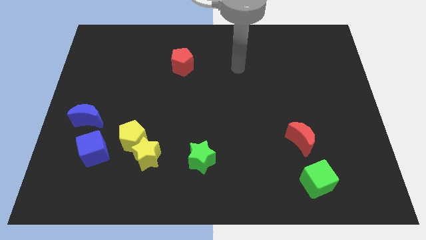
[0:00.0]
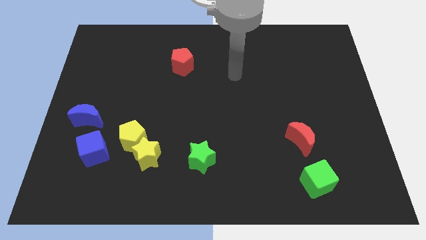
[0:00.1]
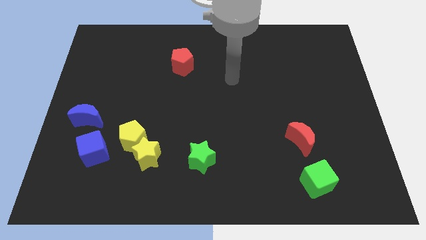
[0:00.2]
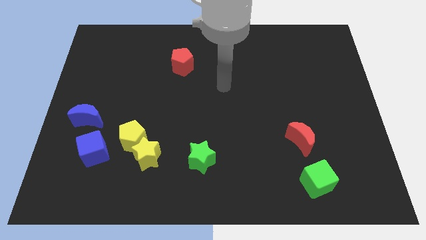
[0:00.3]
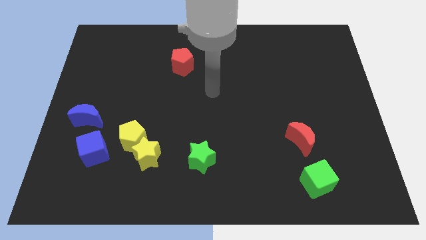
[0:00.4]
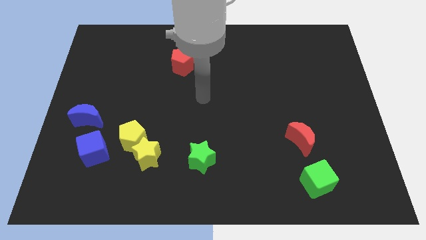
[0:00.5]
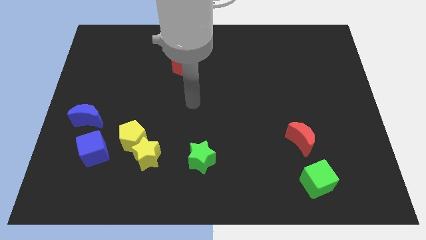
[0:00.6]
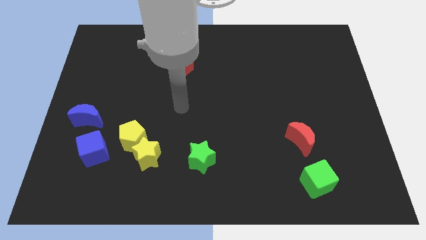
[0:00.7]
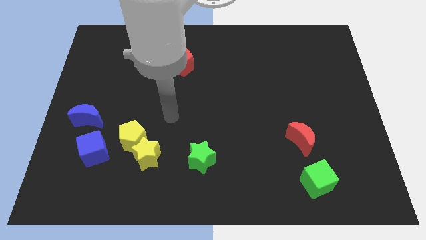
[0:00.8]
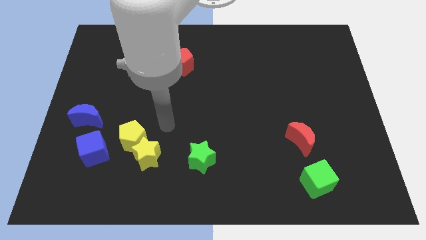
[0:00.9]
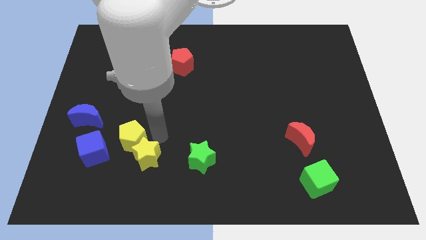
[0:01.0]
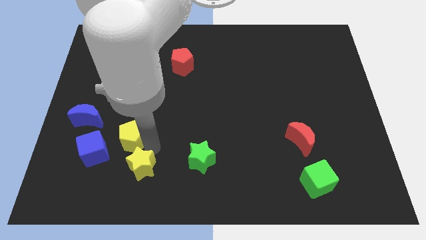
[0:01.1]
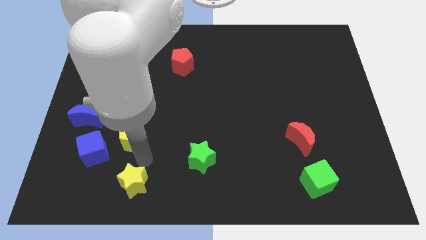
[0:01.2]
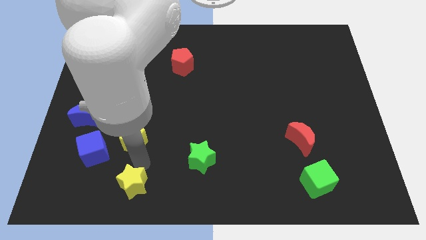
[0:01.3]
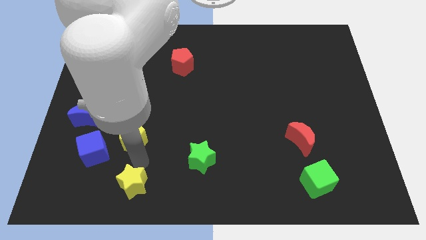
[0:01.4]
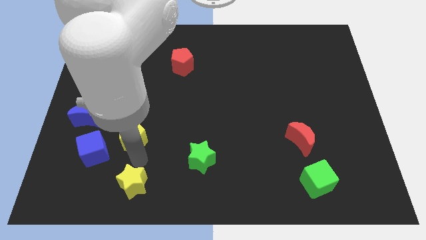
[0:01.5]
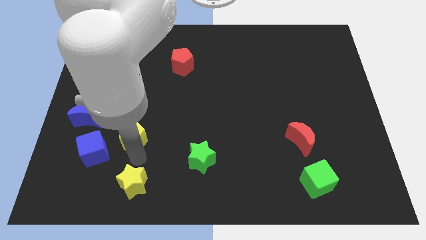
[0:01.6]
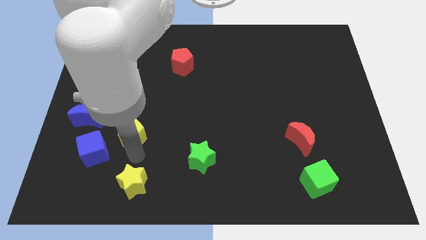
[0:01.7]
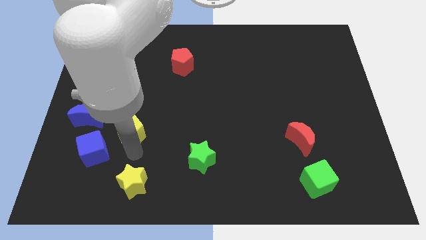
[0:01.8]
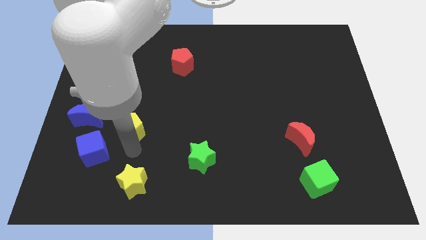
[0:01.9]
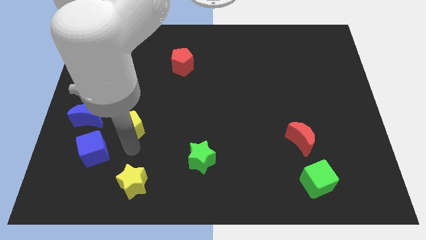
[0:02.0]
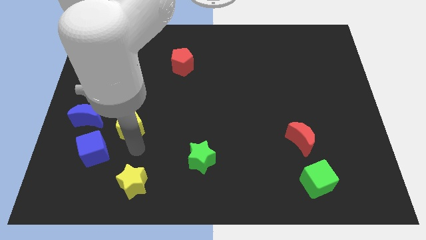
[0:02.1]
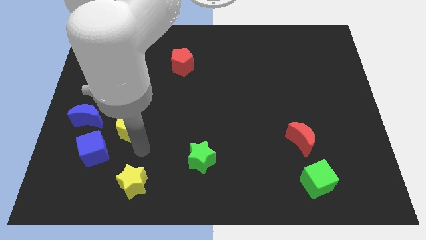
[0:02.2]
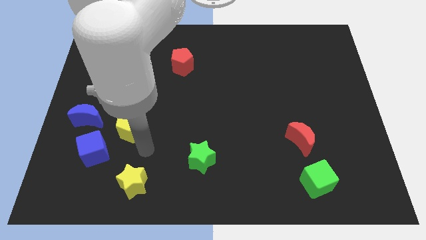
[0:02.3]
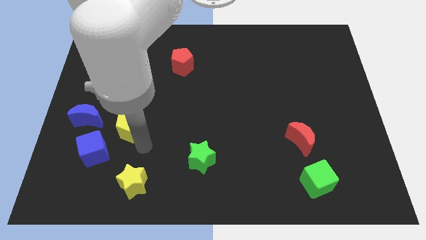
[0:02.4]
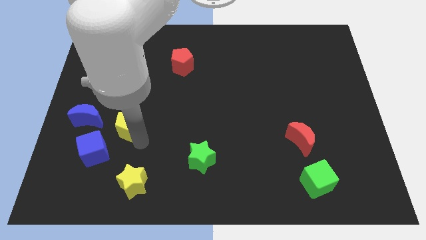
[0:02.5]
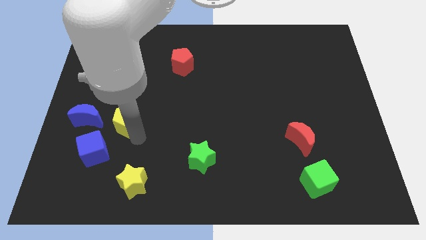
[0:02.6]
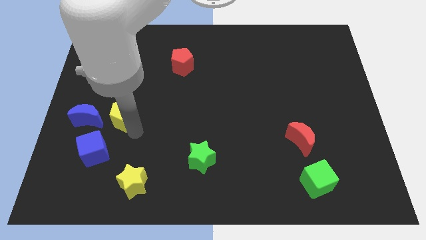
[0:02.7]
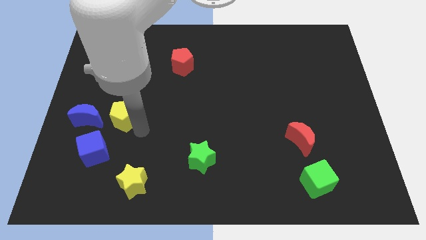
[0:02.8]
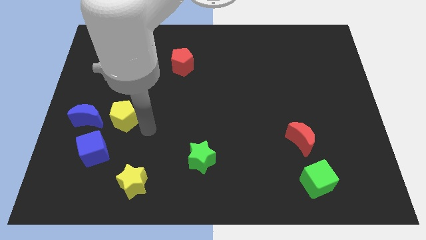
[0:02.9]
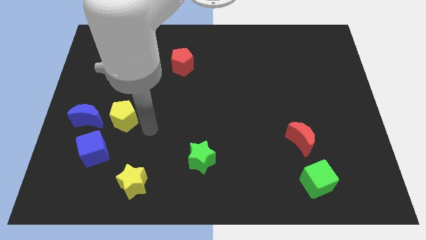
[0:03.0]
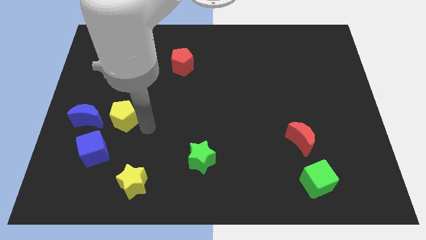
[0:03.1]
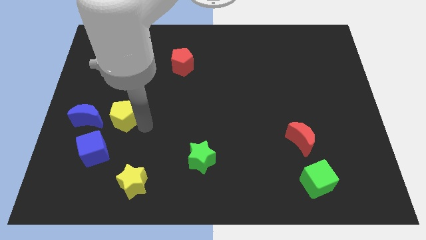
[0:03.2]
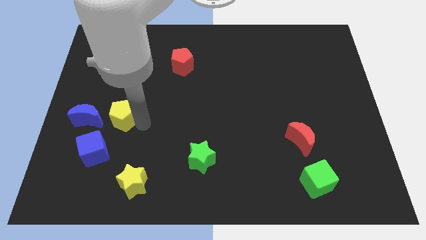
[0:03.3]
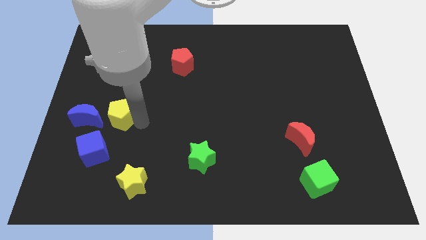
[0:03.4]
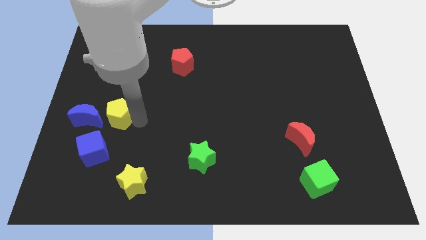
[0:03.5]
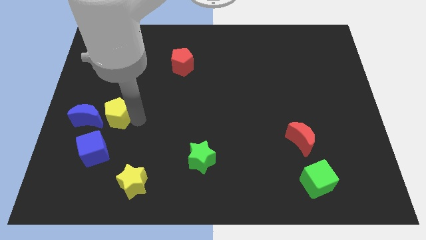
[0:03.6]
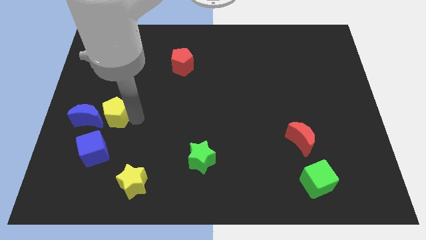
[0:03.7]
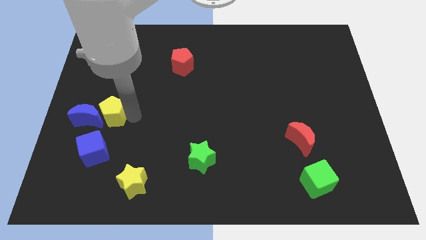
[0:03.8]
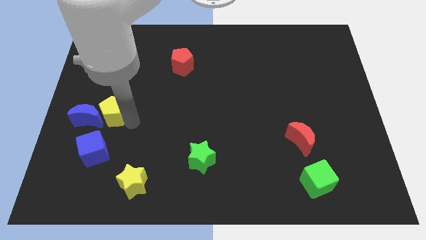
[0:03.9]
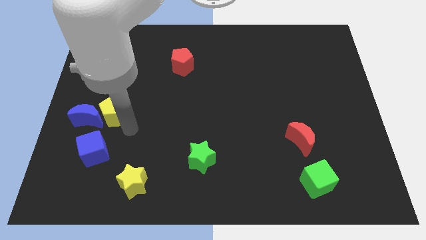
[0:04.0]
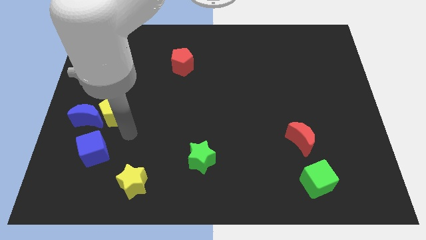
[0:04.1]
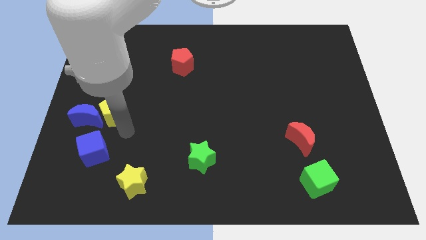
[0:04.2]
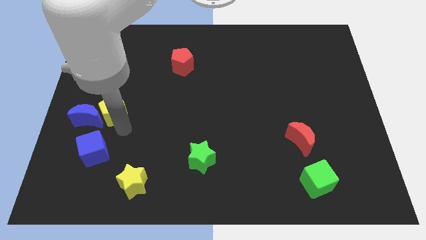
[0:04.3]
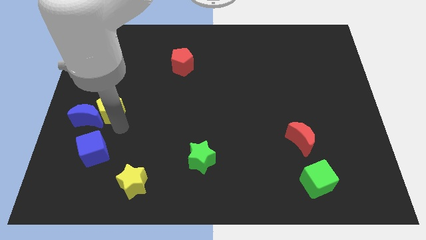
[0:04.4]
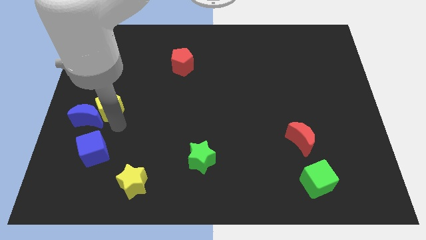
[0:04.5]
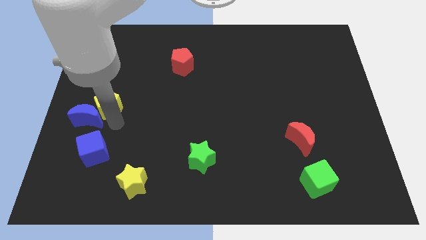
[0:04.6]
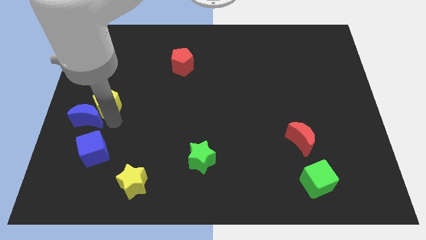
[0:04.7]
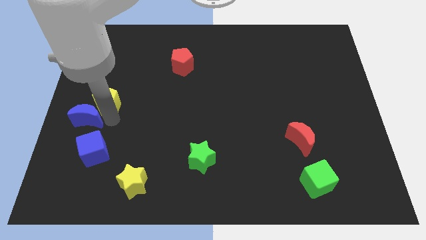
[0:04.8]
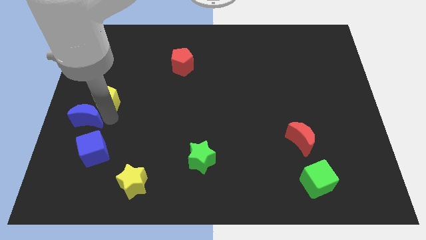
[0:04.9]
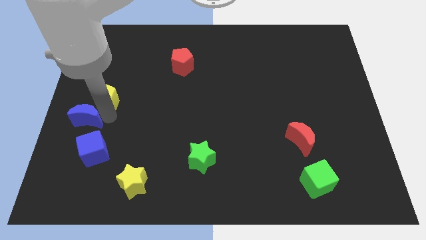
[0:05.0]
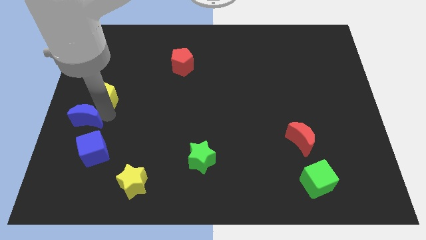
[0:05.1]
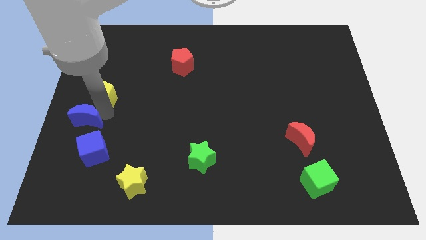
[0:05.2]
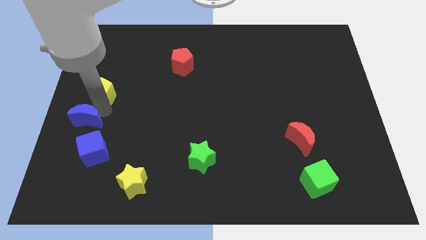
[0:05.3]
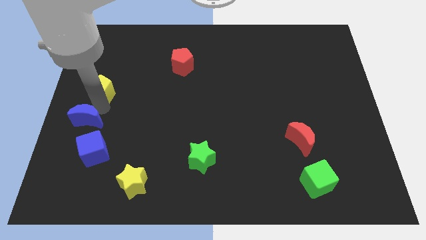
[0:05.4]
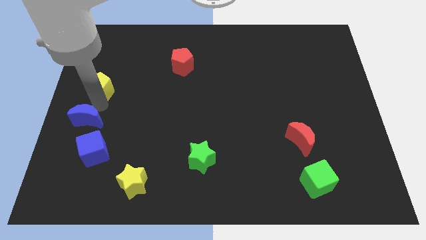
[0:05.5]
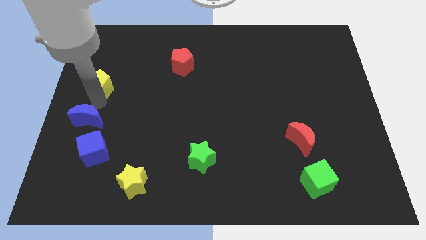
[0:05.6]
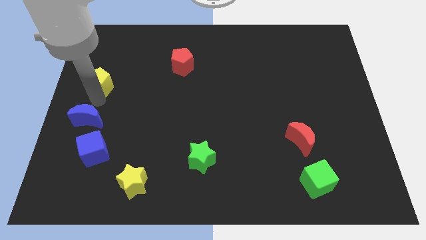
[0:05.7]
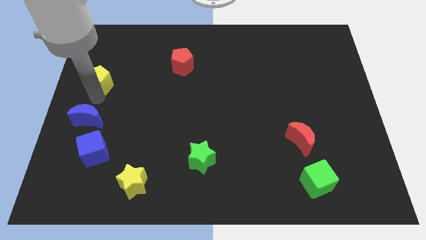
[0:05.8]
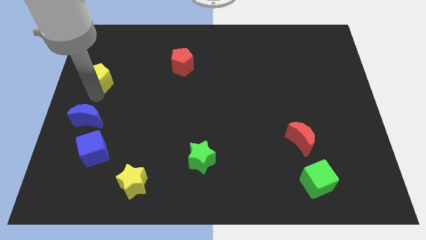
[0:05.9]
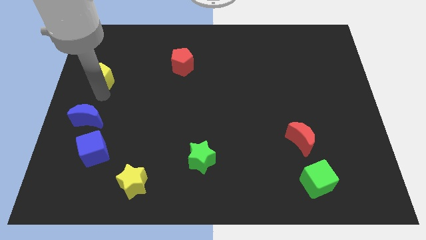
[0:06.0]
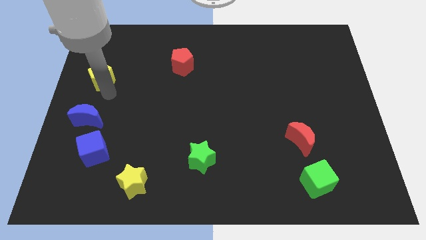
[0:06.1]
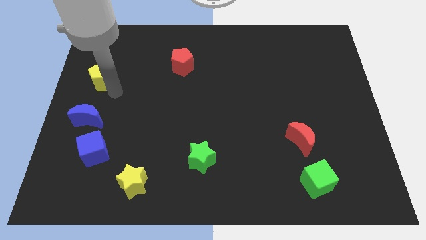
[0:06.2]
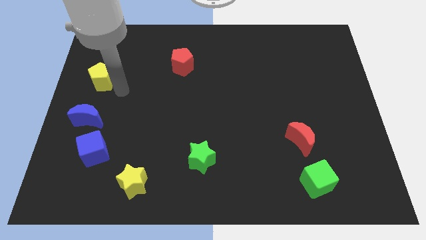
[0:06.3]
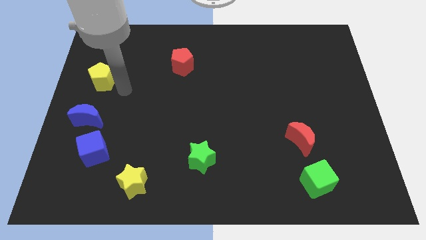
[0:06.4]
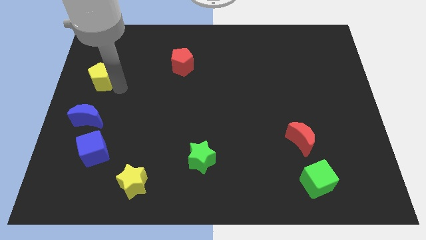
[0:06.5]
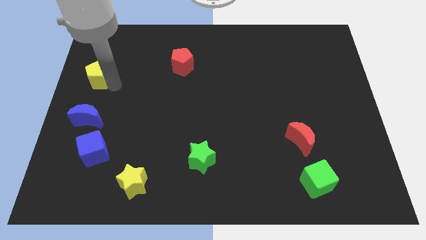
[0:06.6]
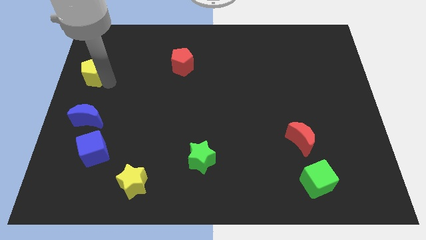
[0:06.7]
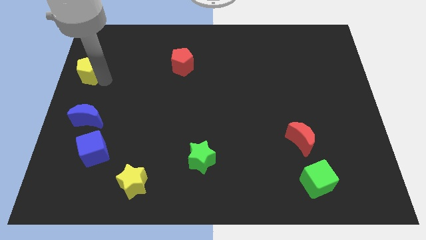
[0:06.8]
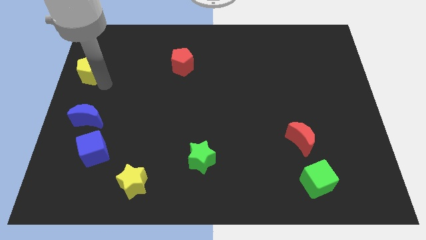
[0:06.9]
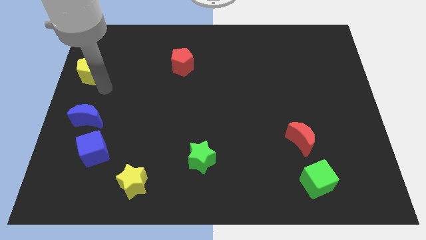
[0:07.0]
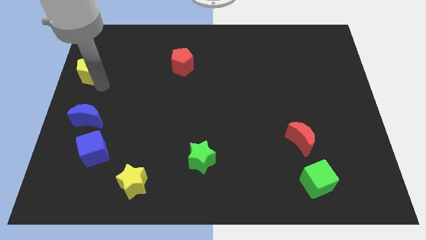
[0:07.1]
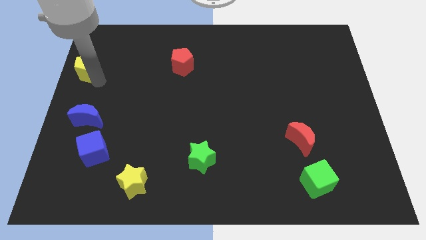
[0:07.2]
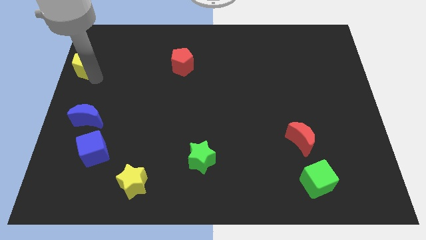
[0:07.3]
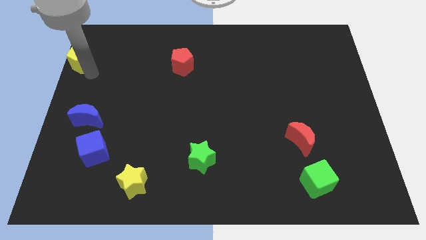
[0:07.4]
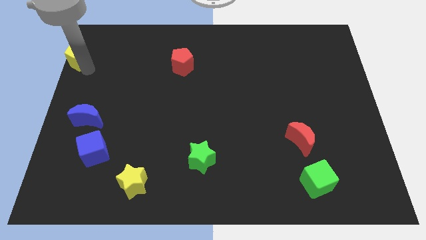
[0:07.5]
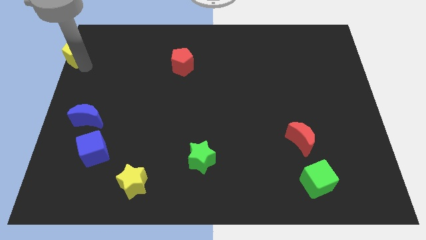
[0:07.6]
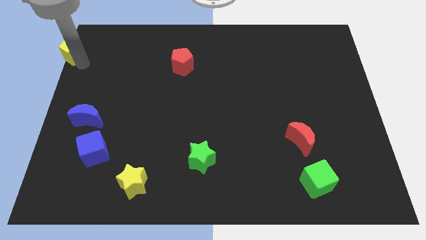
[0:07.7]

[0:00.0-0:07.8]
push the yellow pentagon to the top left corner
